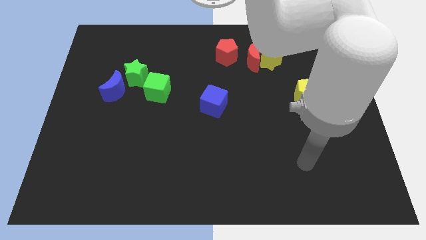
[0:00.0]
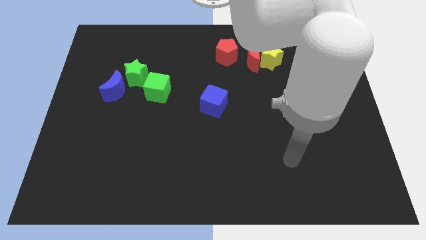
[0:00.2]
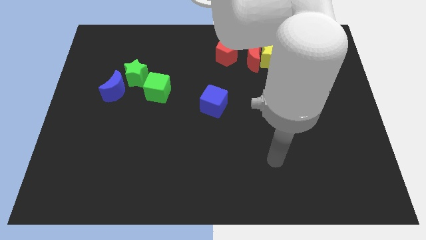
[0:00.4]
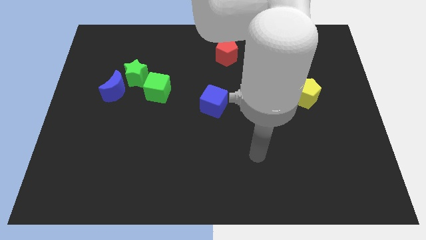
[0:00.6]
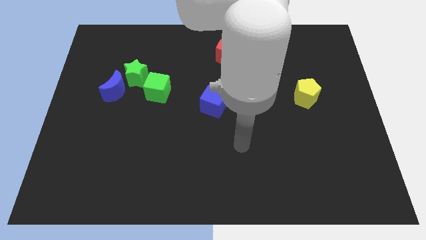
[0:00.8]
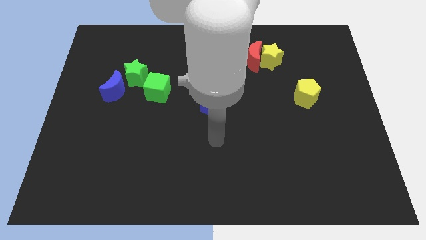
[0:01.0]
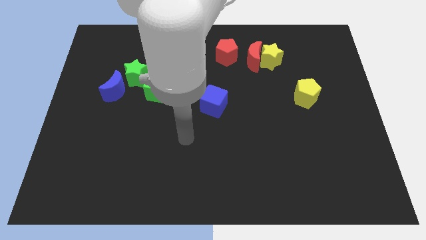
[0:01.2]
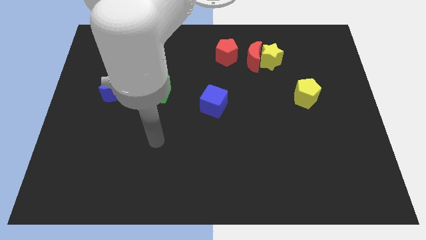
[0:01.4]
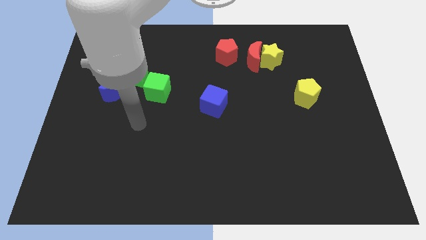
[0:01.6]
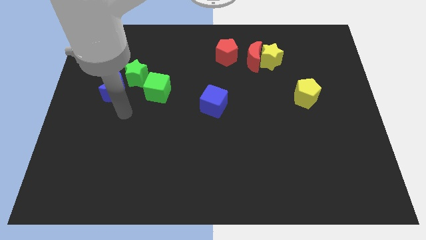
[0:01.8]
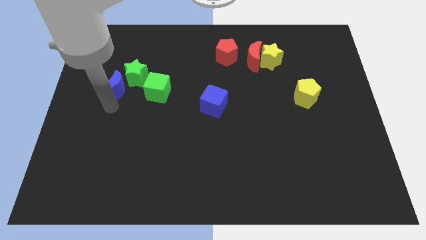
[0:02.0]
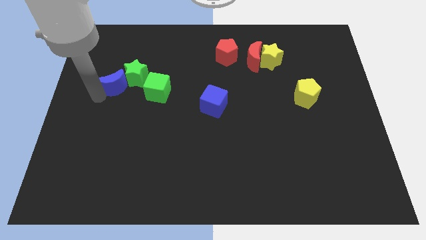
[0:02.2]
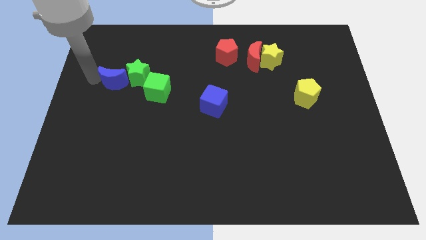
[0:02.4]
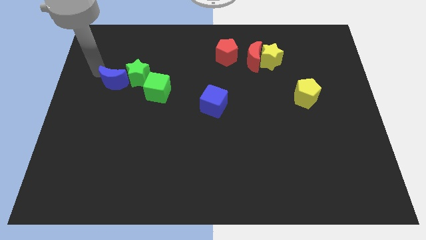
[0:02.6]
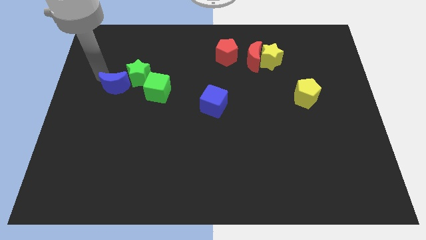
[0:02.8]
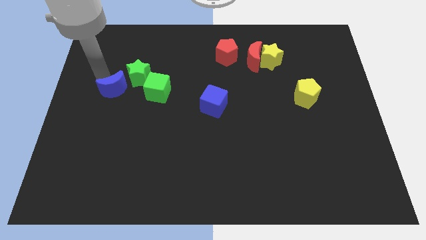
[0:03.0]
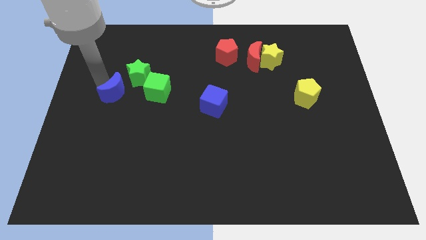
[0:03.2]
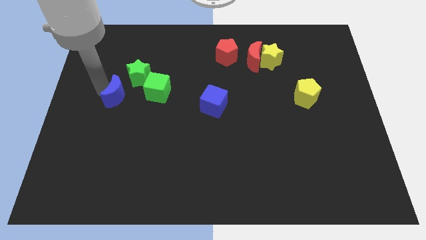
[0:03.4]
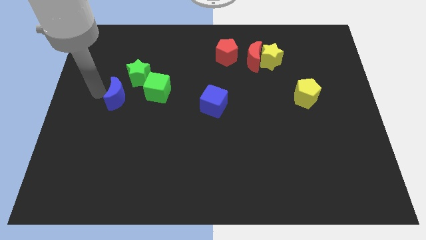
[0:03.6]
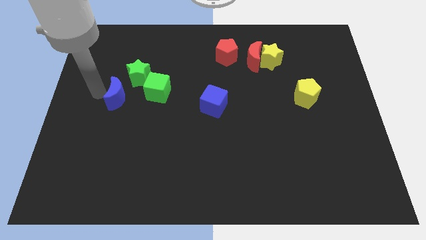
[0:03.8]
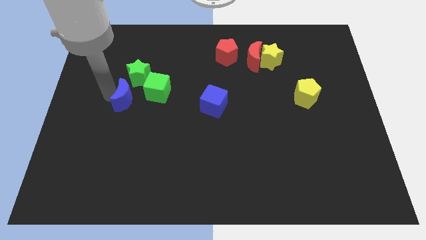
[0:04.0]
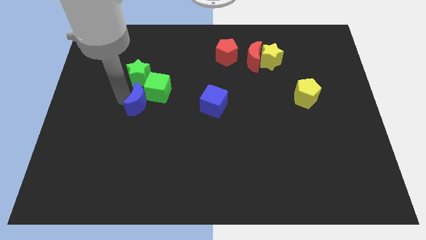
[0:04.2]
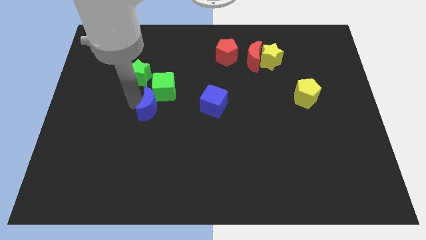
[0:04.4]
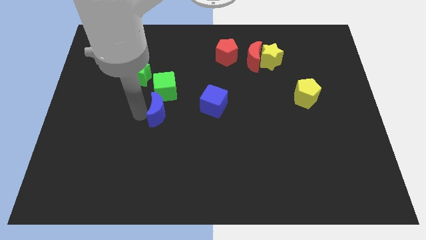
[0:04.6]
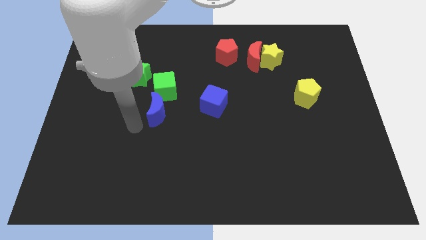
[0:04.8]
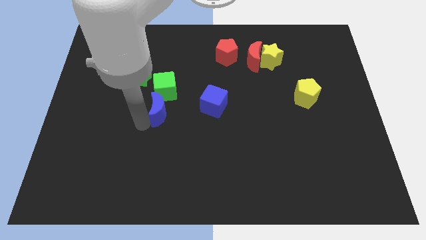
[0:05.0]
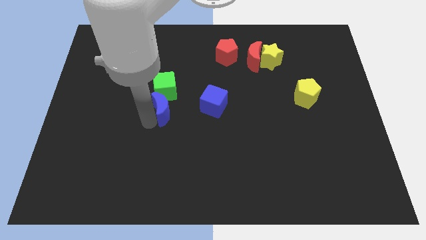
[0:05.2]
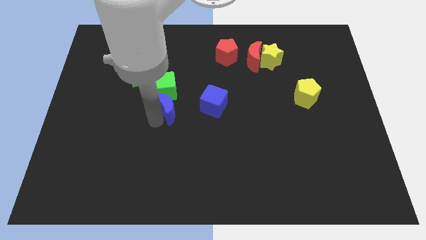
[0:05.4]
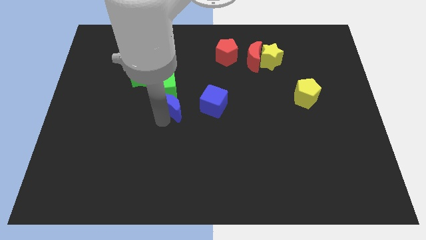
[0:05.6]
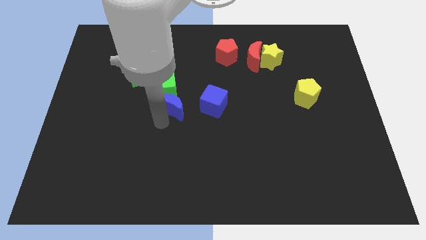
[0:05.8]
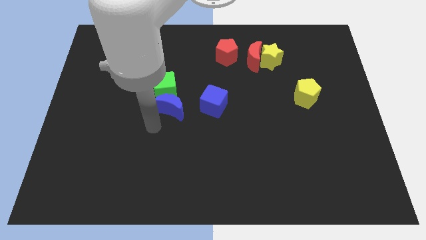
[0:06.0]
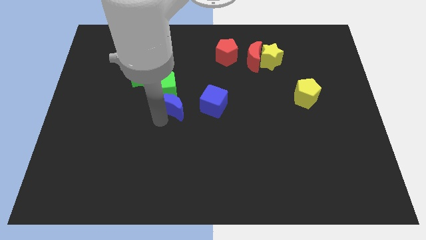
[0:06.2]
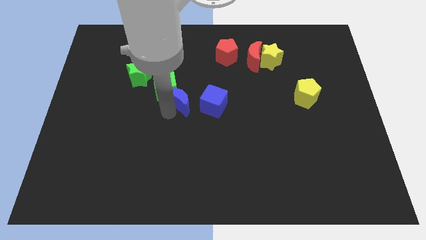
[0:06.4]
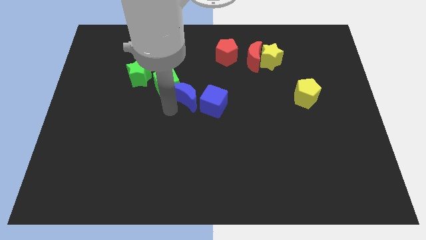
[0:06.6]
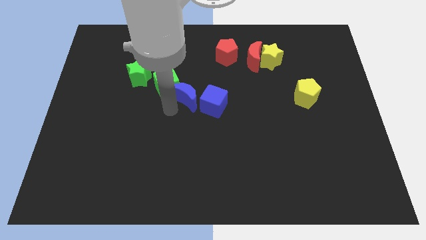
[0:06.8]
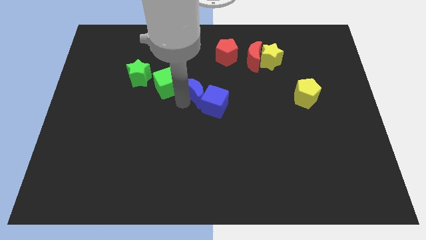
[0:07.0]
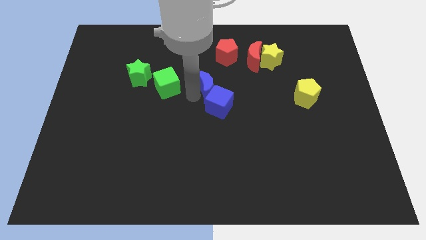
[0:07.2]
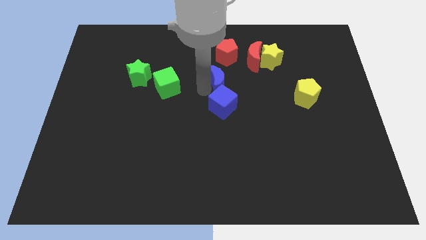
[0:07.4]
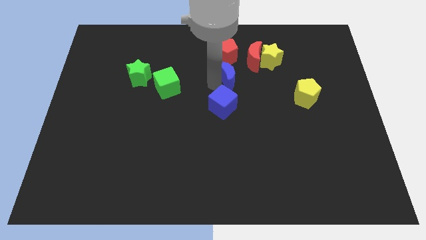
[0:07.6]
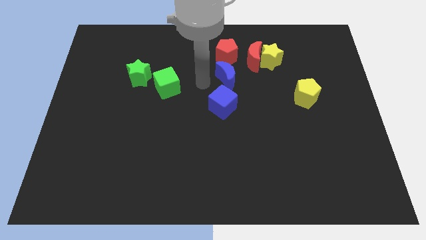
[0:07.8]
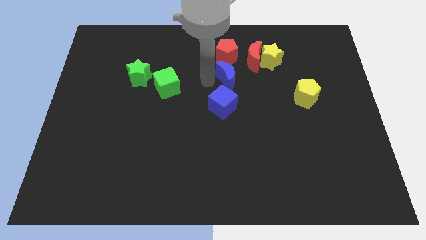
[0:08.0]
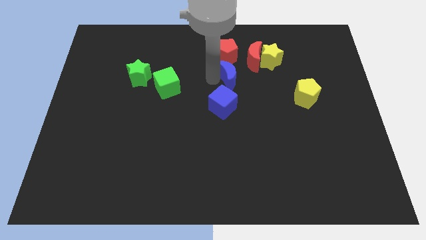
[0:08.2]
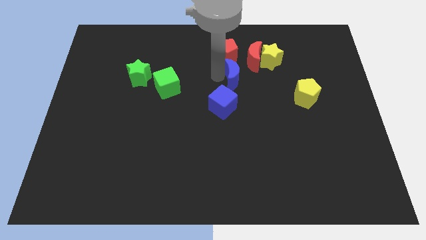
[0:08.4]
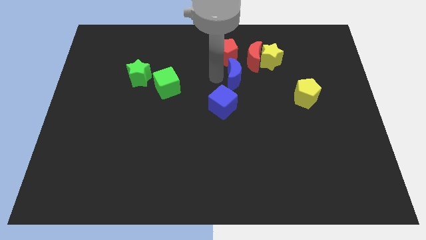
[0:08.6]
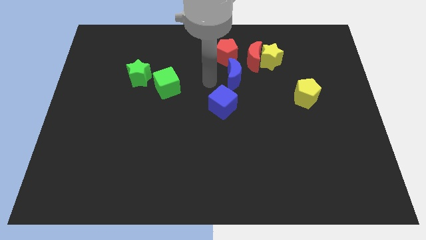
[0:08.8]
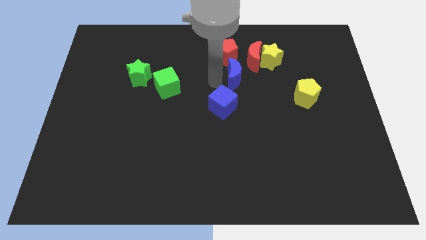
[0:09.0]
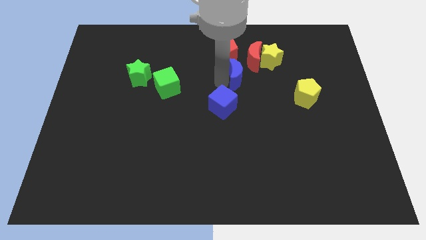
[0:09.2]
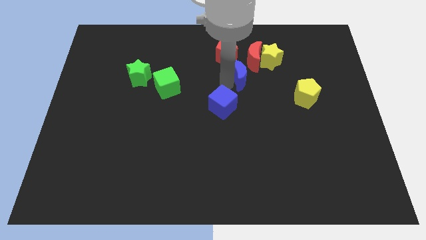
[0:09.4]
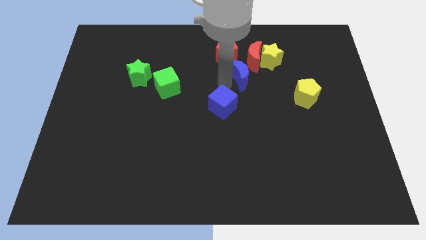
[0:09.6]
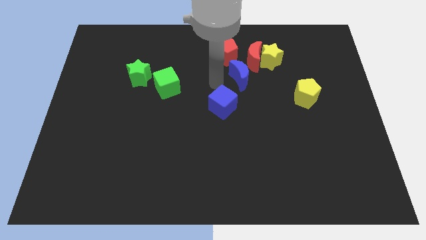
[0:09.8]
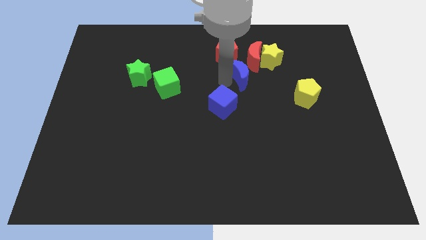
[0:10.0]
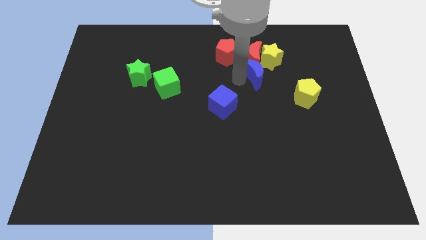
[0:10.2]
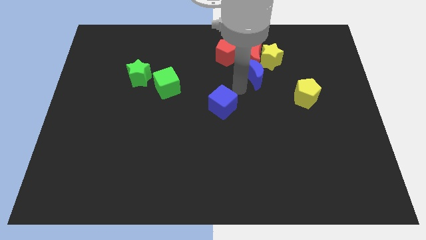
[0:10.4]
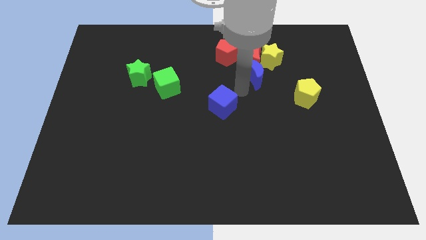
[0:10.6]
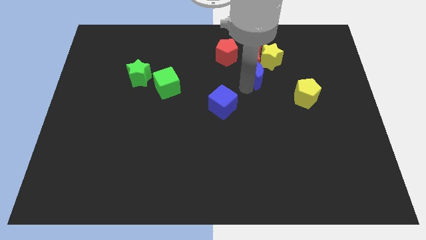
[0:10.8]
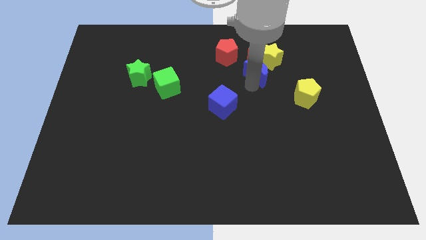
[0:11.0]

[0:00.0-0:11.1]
put the blue moon to the yellow star

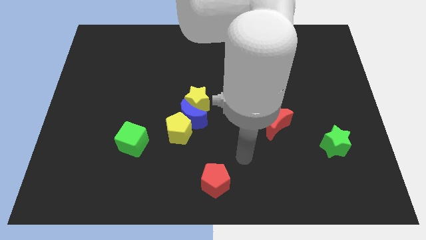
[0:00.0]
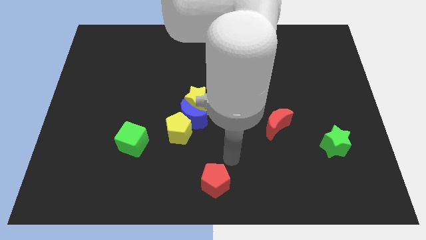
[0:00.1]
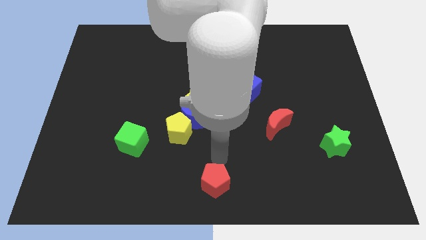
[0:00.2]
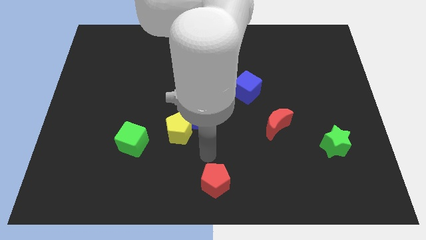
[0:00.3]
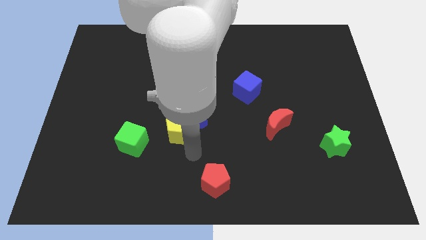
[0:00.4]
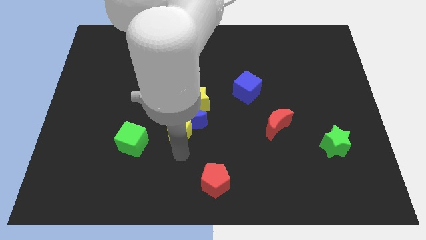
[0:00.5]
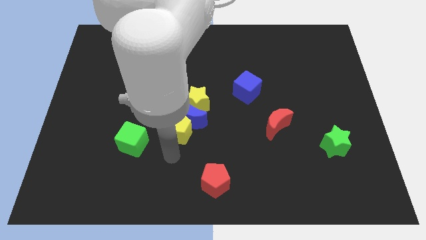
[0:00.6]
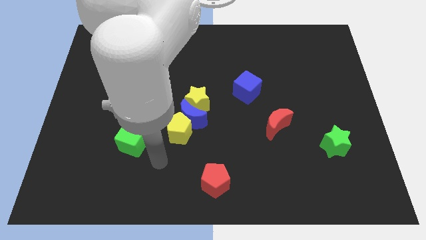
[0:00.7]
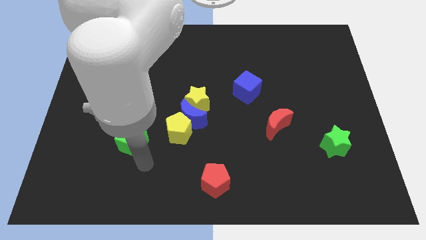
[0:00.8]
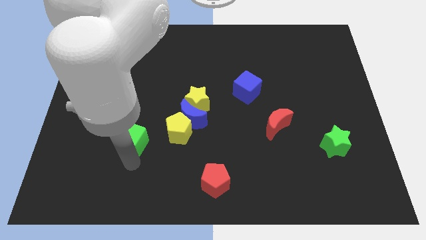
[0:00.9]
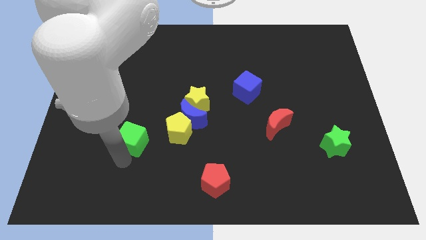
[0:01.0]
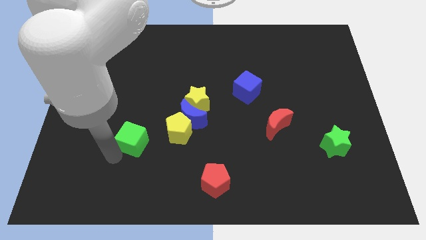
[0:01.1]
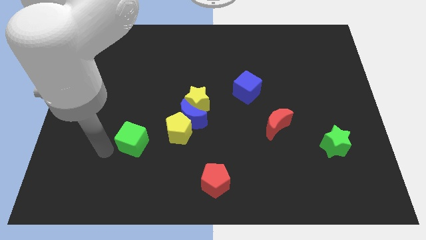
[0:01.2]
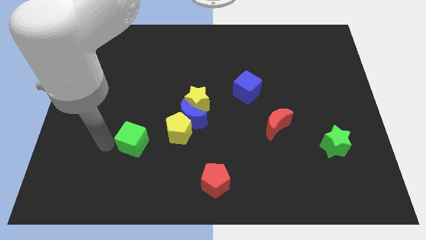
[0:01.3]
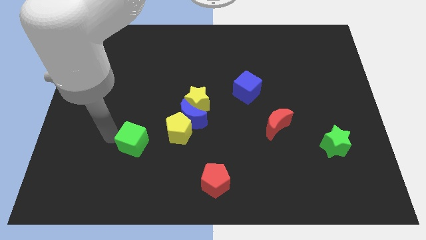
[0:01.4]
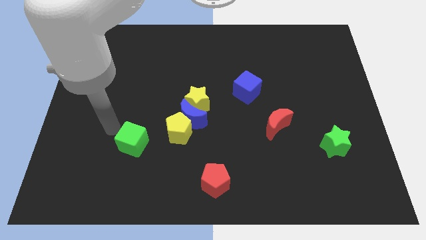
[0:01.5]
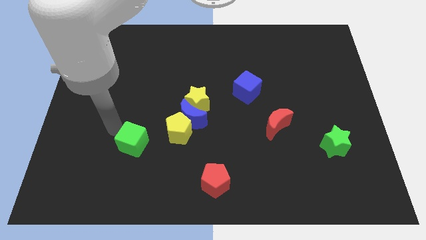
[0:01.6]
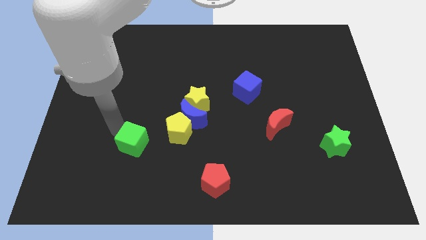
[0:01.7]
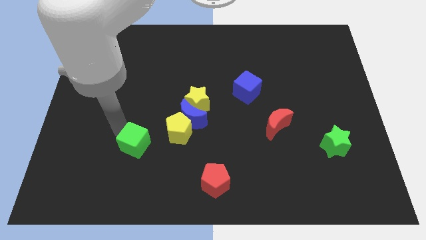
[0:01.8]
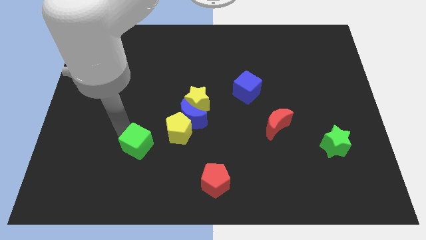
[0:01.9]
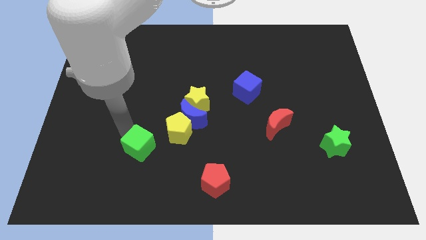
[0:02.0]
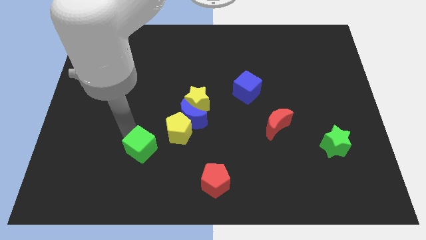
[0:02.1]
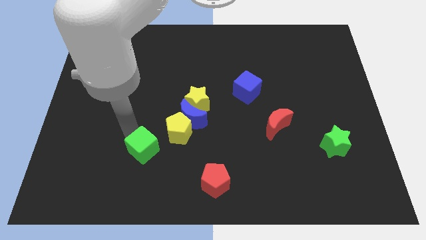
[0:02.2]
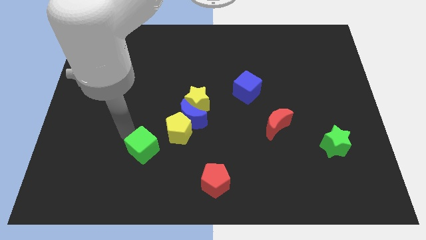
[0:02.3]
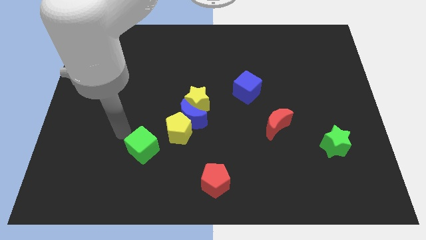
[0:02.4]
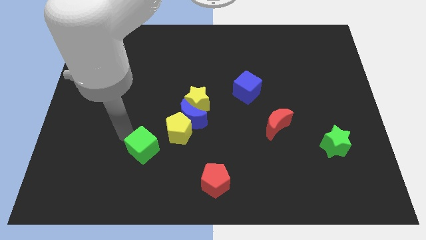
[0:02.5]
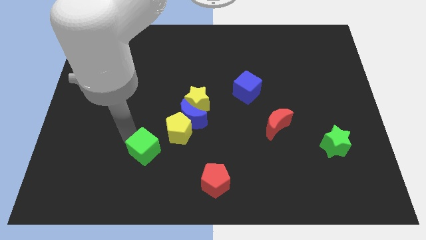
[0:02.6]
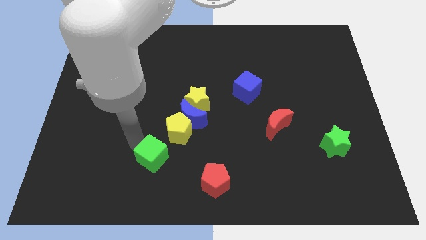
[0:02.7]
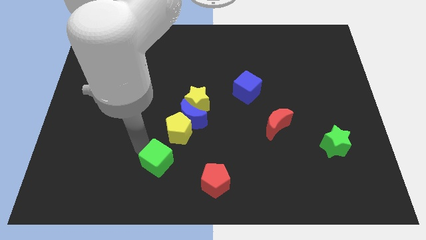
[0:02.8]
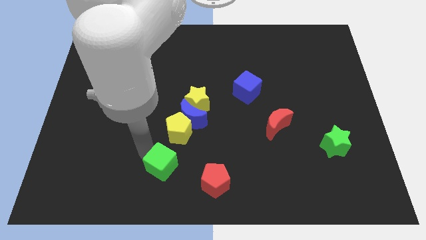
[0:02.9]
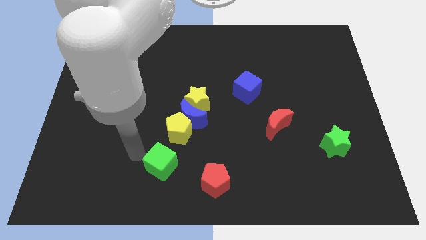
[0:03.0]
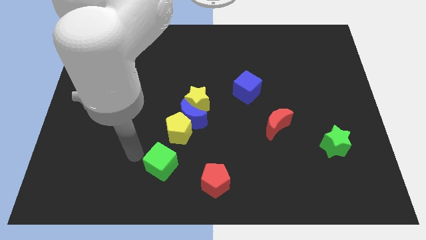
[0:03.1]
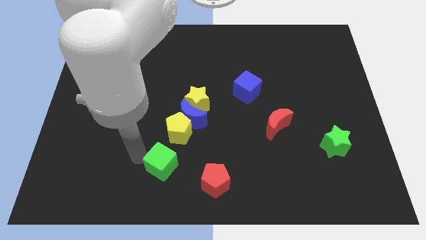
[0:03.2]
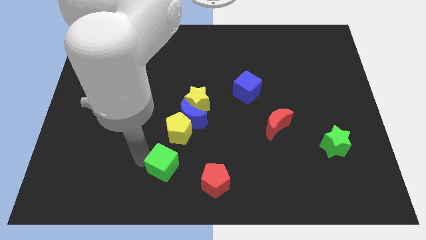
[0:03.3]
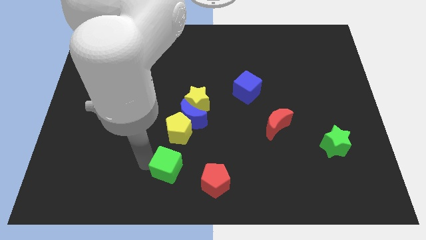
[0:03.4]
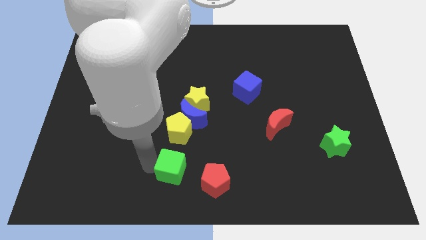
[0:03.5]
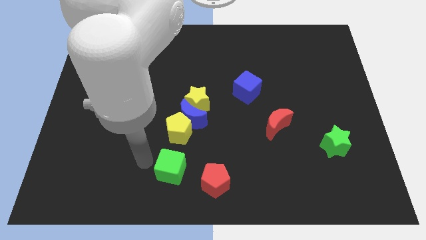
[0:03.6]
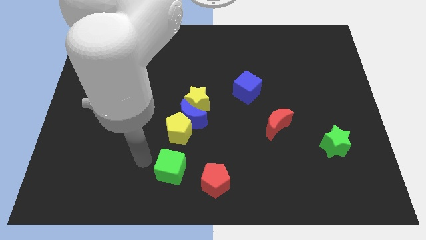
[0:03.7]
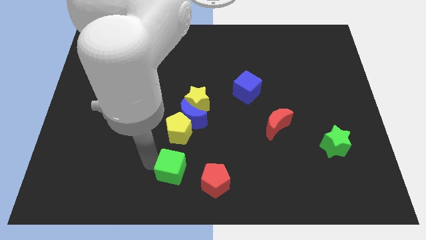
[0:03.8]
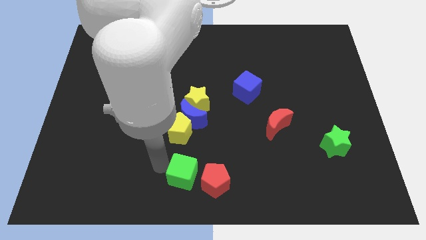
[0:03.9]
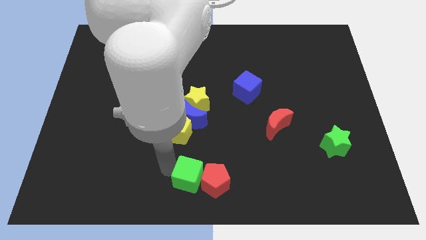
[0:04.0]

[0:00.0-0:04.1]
slide the green cube to the red pentagon
